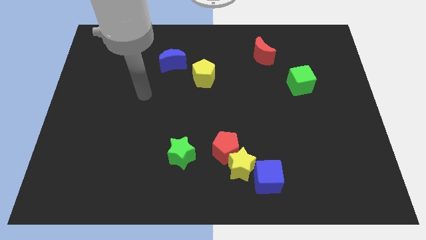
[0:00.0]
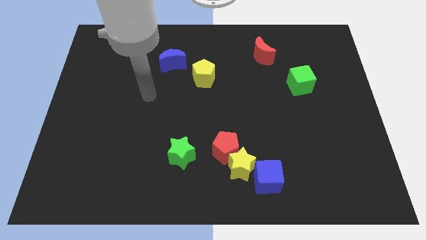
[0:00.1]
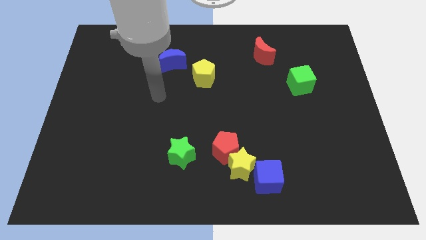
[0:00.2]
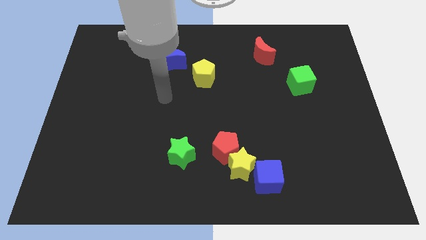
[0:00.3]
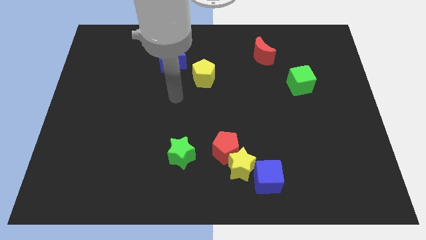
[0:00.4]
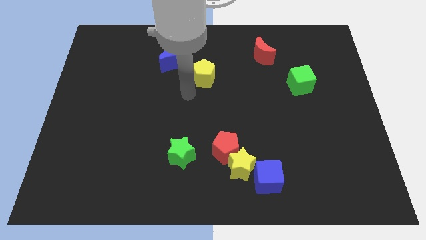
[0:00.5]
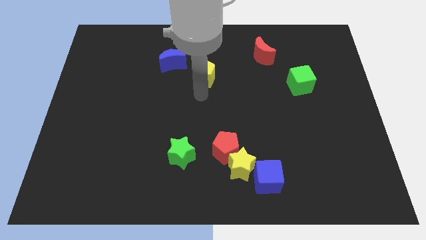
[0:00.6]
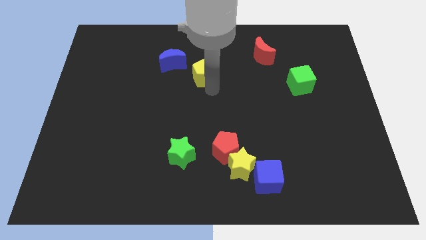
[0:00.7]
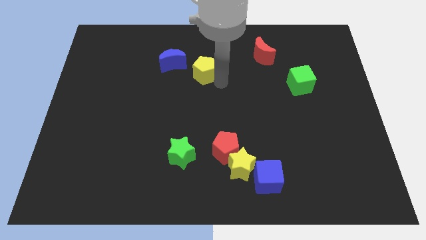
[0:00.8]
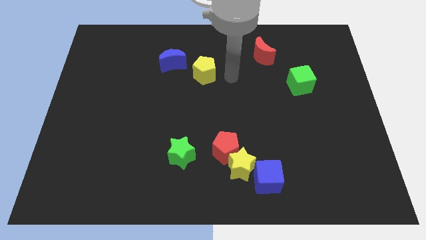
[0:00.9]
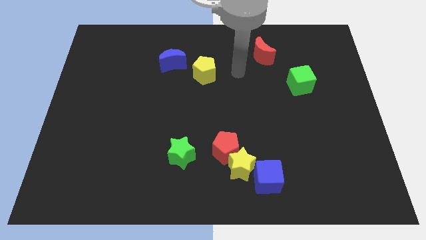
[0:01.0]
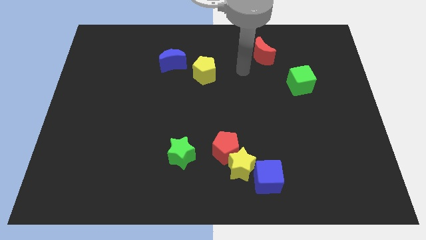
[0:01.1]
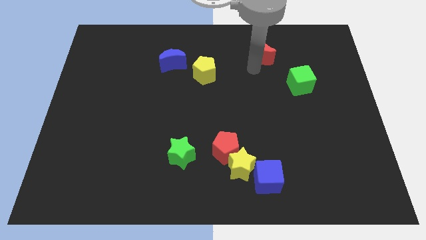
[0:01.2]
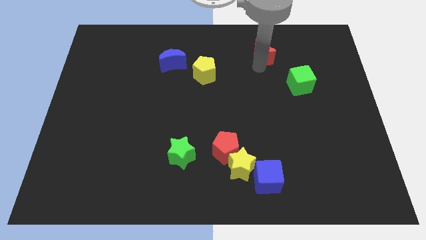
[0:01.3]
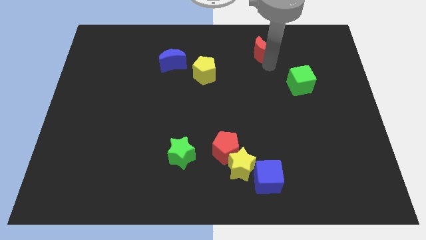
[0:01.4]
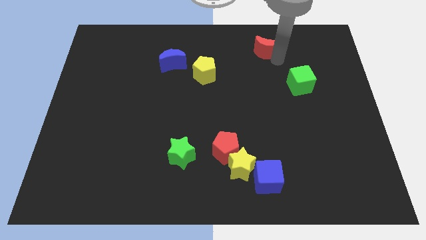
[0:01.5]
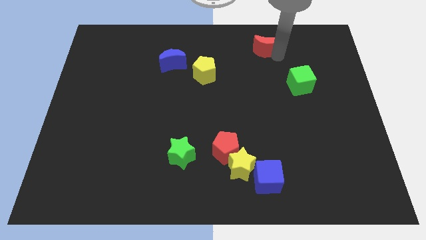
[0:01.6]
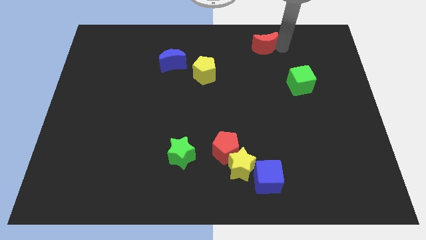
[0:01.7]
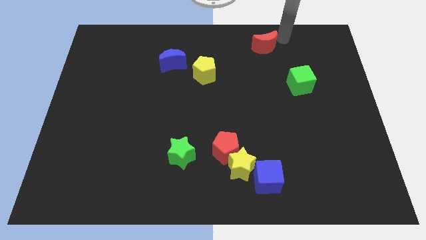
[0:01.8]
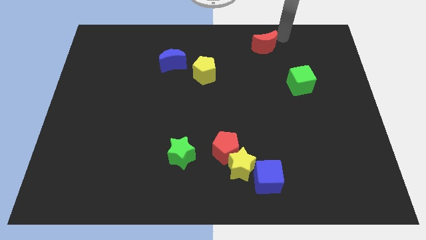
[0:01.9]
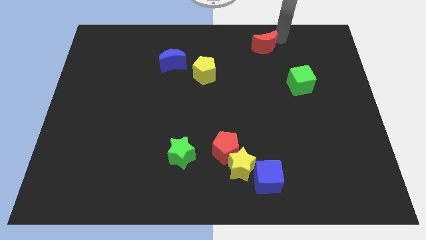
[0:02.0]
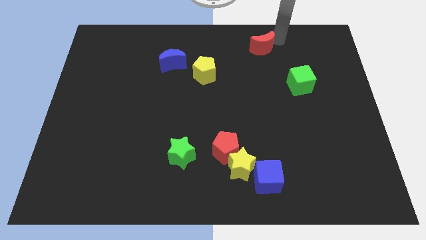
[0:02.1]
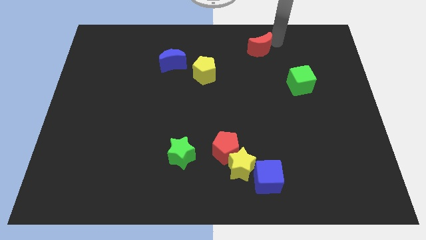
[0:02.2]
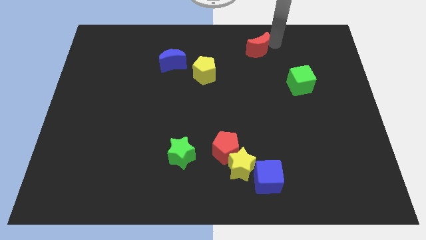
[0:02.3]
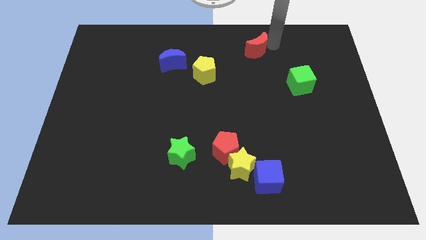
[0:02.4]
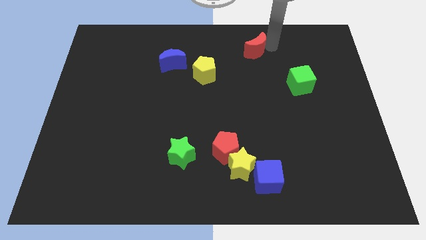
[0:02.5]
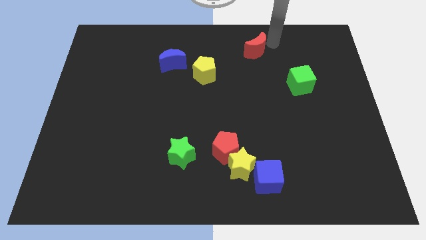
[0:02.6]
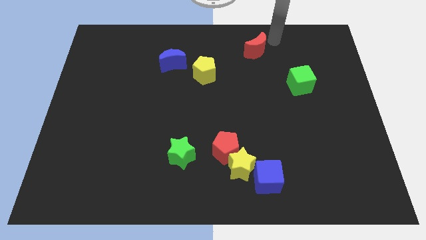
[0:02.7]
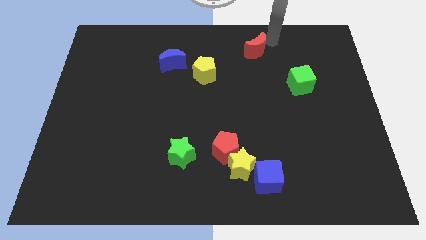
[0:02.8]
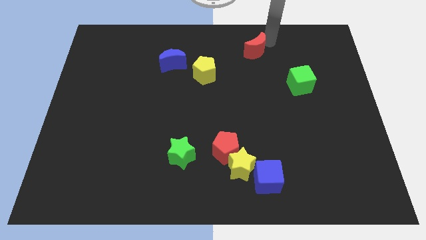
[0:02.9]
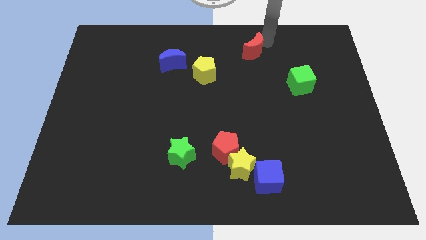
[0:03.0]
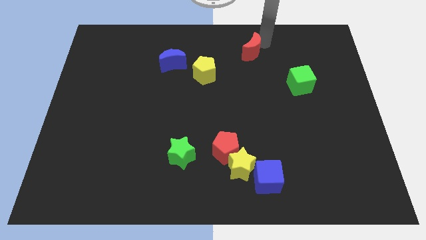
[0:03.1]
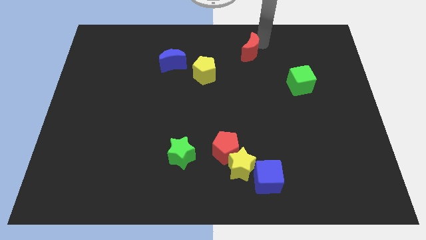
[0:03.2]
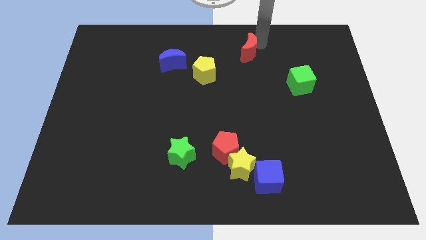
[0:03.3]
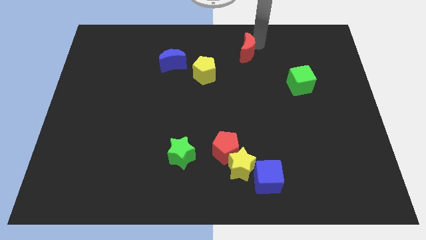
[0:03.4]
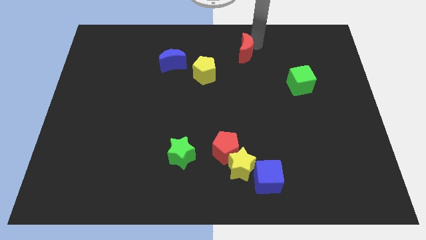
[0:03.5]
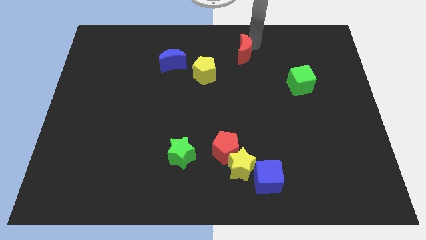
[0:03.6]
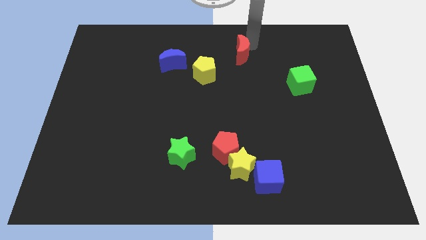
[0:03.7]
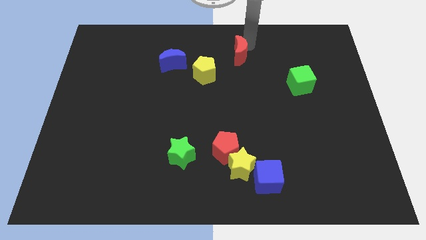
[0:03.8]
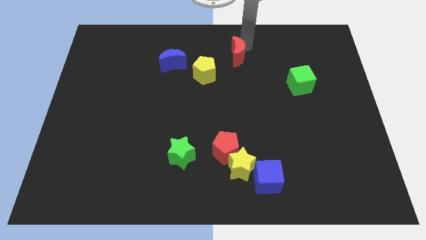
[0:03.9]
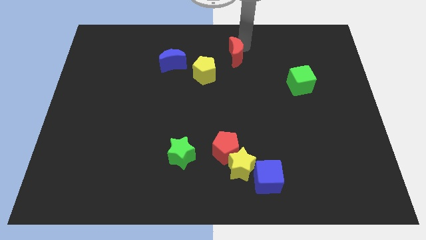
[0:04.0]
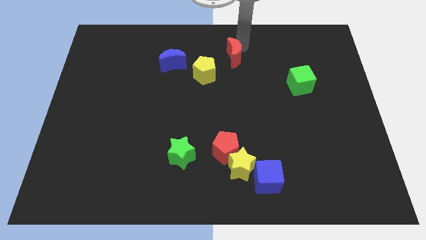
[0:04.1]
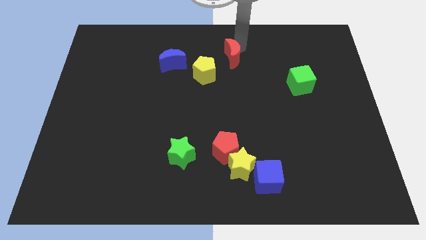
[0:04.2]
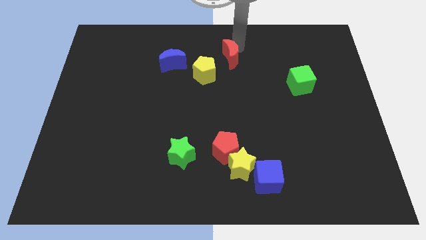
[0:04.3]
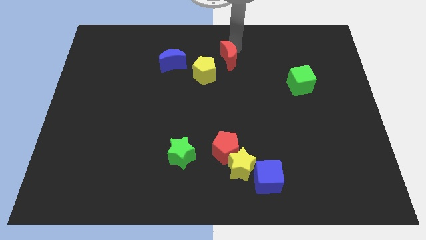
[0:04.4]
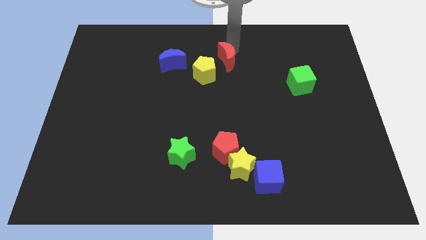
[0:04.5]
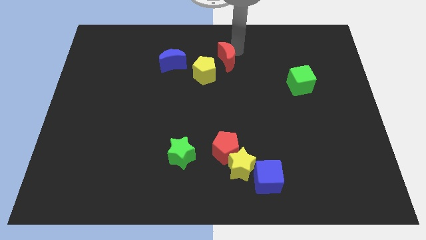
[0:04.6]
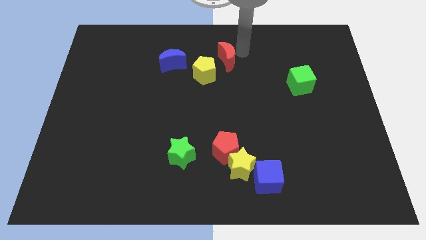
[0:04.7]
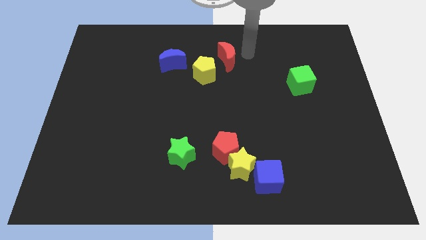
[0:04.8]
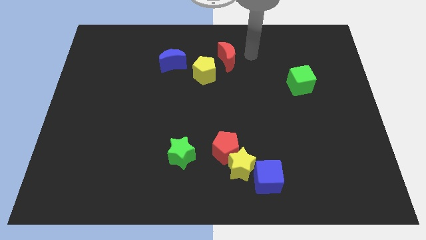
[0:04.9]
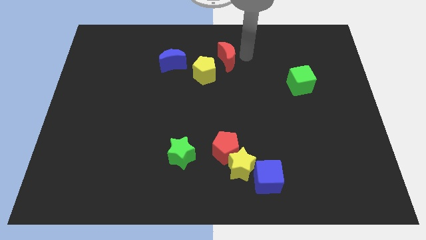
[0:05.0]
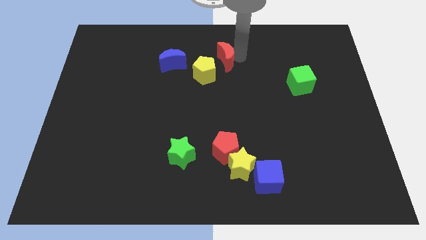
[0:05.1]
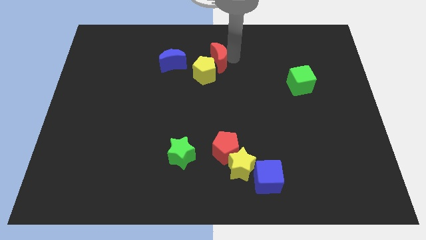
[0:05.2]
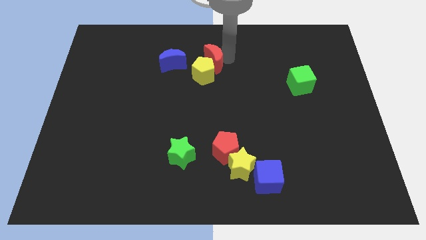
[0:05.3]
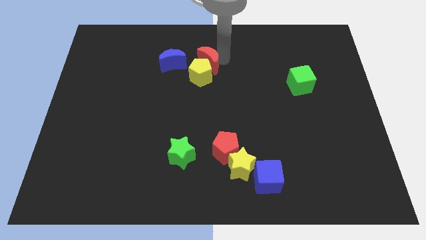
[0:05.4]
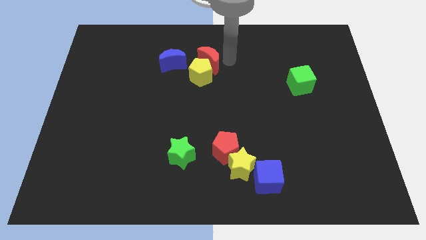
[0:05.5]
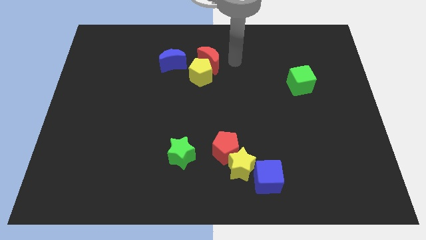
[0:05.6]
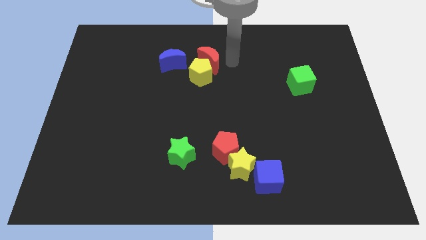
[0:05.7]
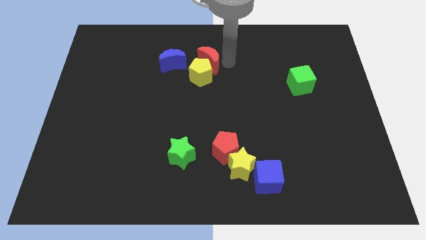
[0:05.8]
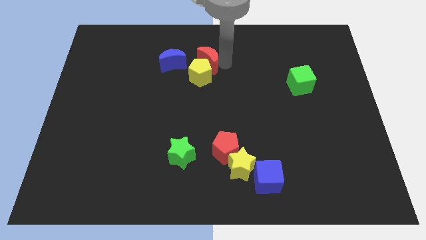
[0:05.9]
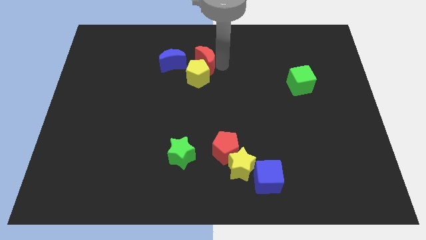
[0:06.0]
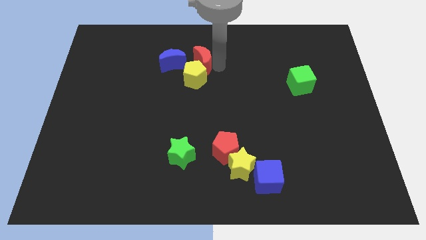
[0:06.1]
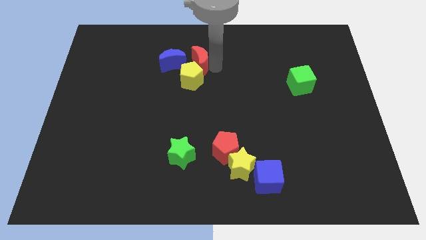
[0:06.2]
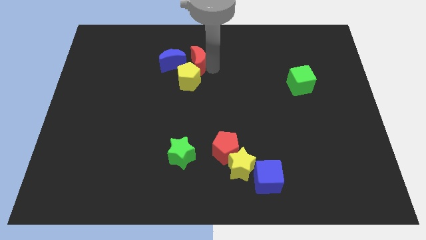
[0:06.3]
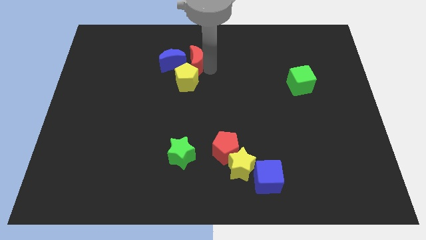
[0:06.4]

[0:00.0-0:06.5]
put the red moon towards the blue moon

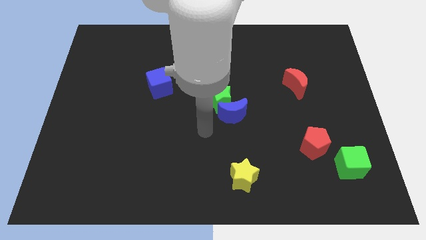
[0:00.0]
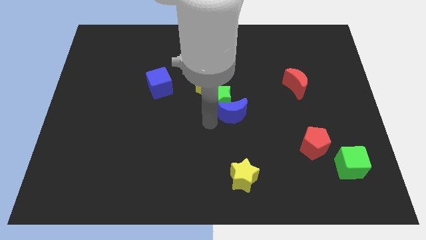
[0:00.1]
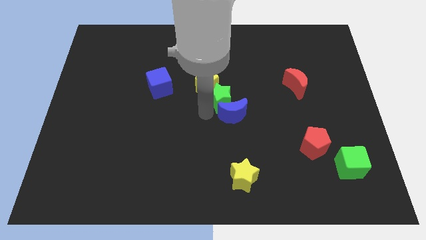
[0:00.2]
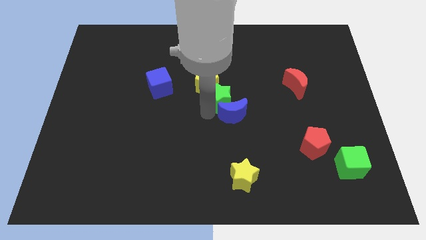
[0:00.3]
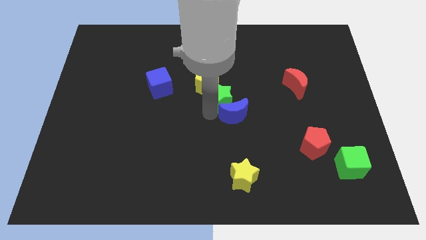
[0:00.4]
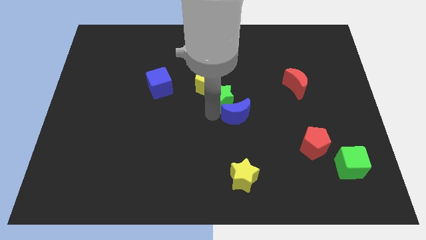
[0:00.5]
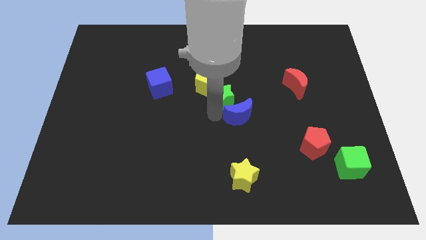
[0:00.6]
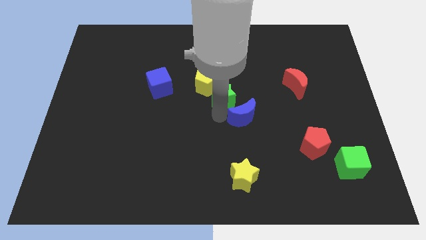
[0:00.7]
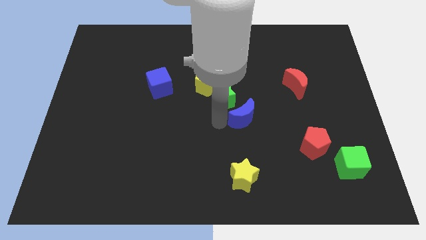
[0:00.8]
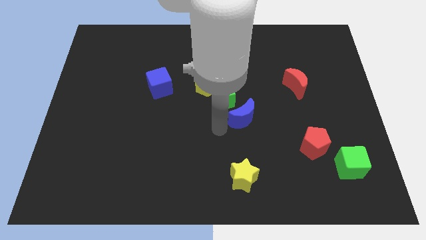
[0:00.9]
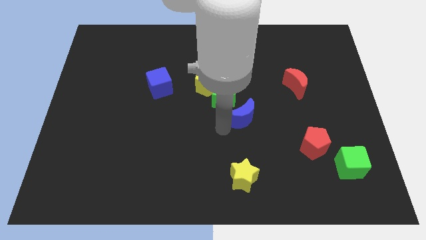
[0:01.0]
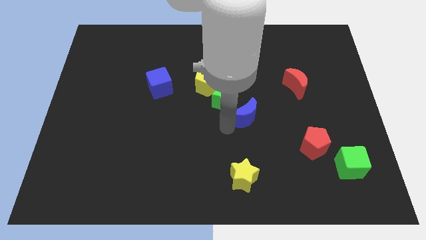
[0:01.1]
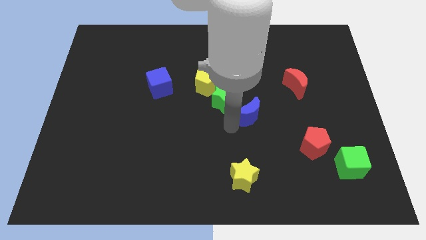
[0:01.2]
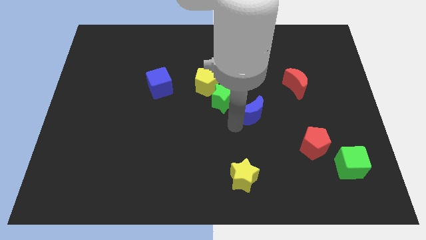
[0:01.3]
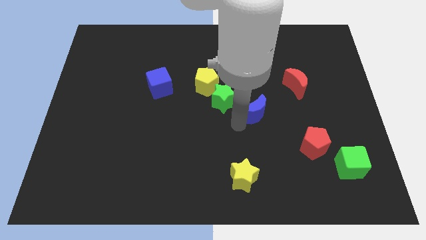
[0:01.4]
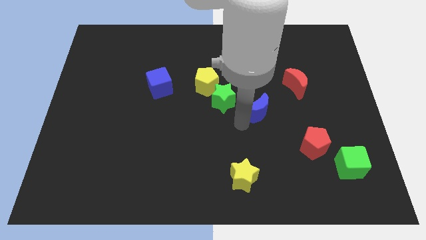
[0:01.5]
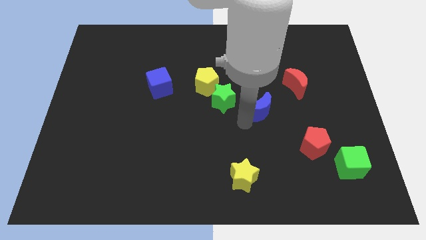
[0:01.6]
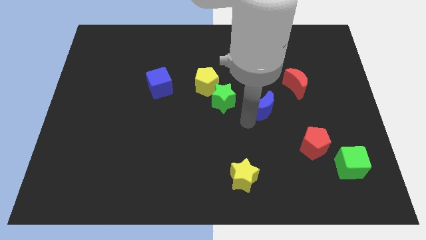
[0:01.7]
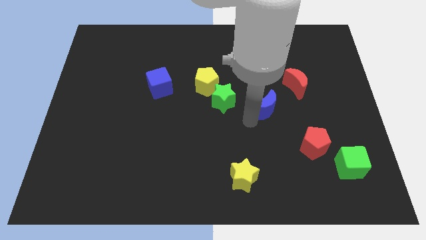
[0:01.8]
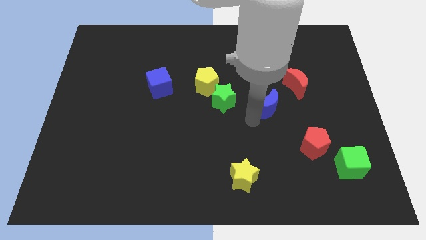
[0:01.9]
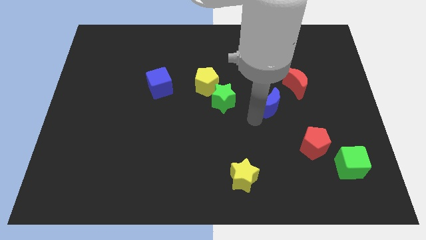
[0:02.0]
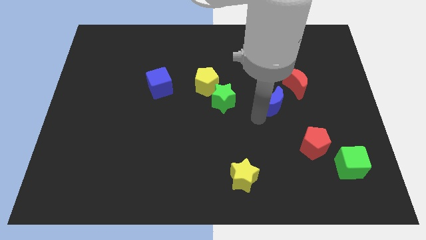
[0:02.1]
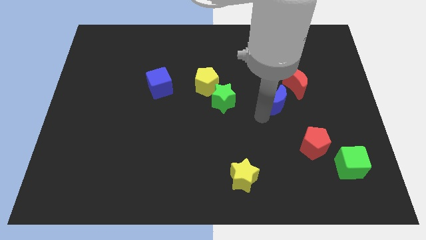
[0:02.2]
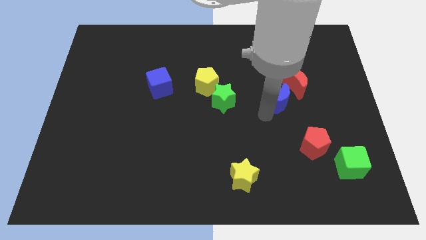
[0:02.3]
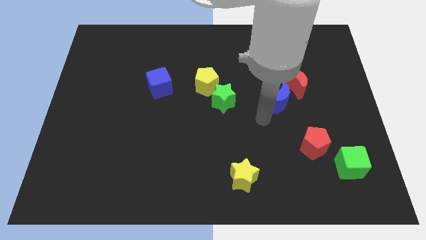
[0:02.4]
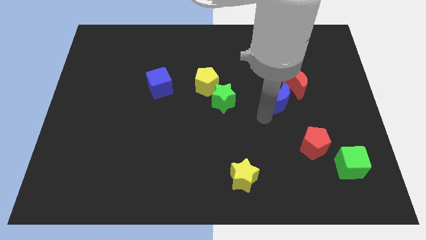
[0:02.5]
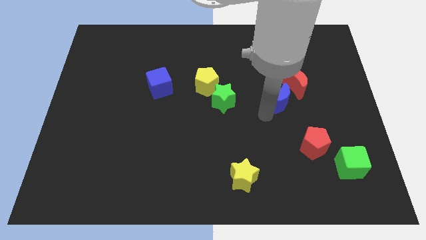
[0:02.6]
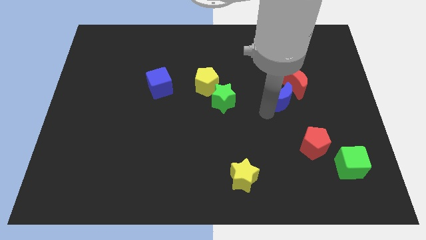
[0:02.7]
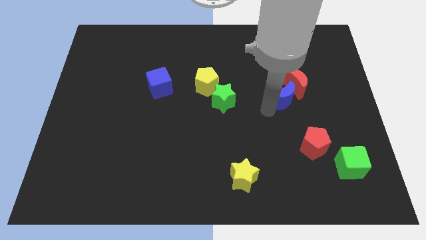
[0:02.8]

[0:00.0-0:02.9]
move the blue moon to the red moon
